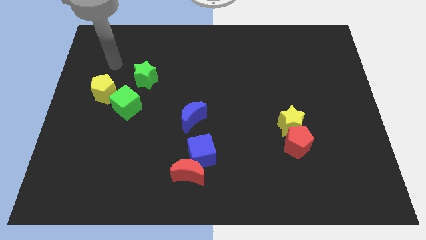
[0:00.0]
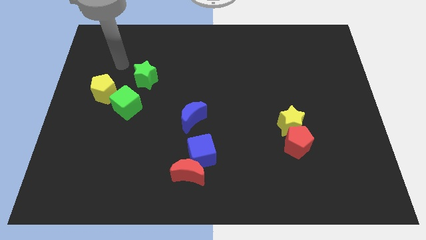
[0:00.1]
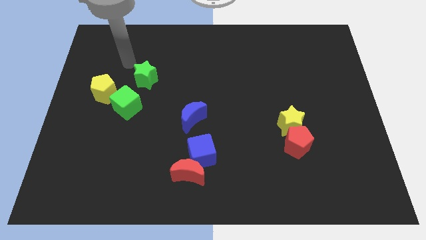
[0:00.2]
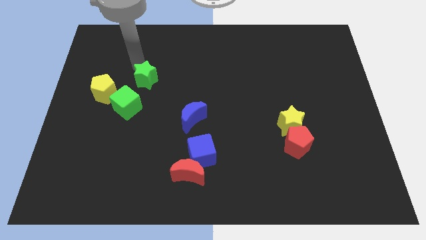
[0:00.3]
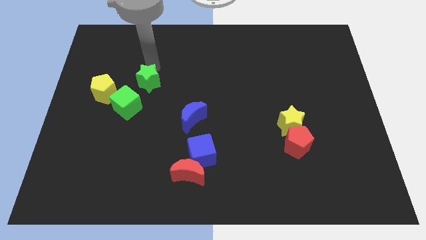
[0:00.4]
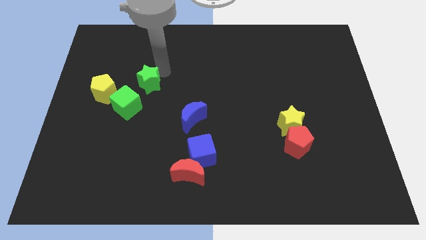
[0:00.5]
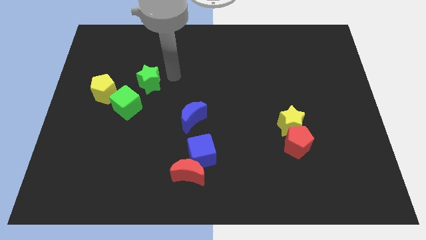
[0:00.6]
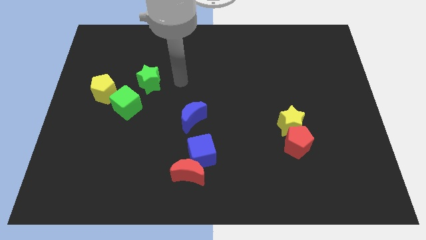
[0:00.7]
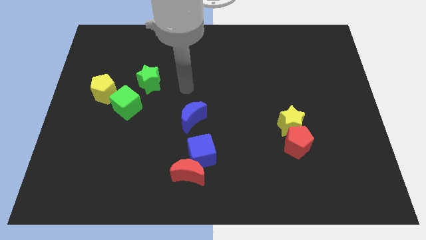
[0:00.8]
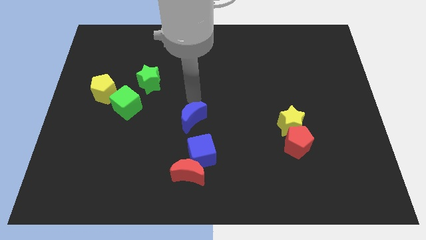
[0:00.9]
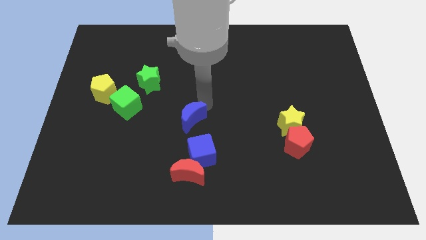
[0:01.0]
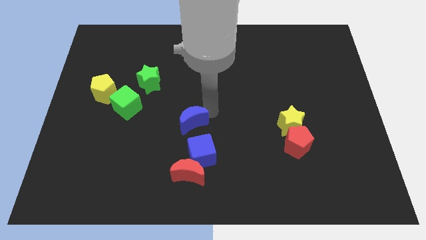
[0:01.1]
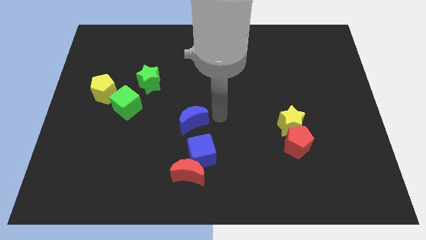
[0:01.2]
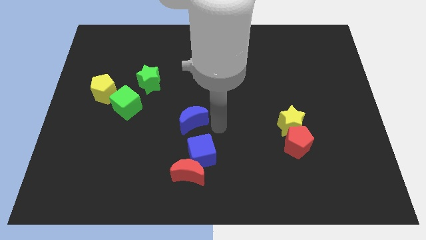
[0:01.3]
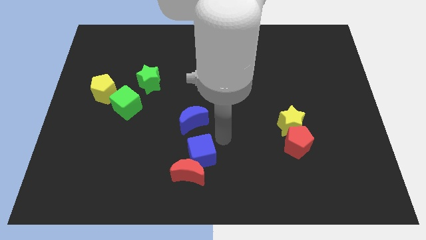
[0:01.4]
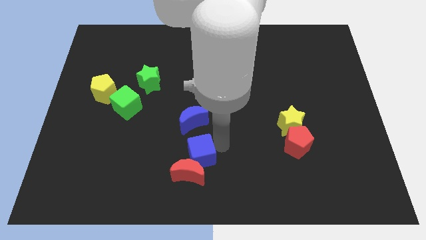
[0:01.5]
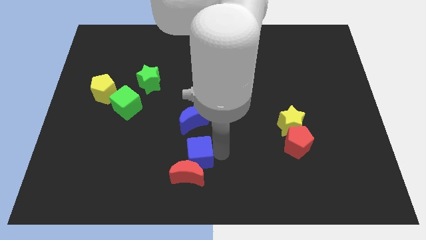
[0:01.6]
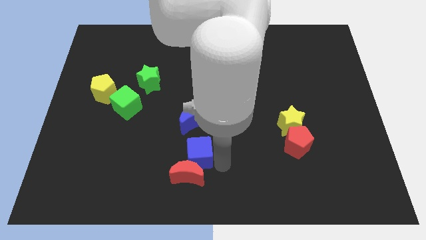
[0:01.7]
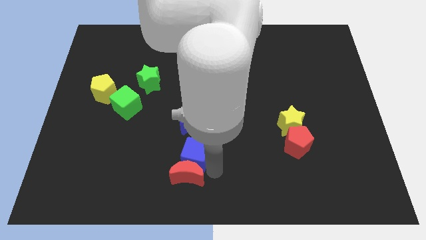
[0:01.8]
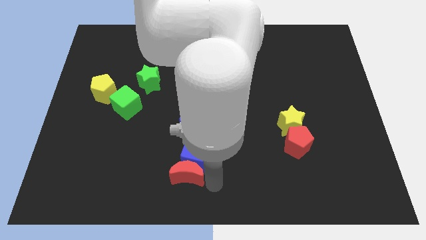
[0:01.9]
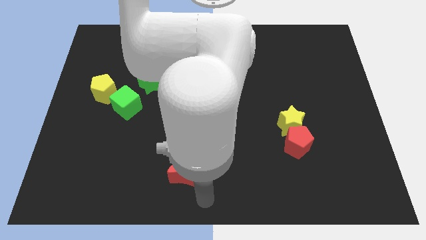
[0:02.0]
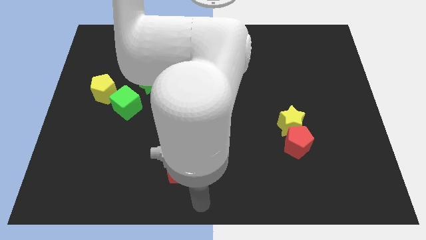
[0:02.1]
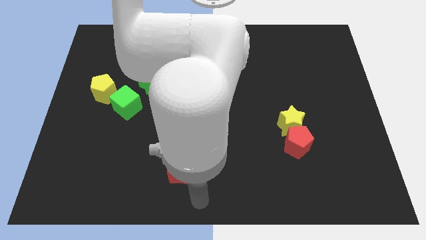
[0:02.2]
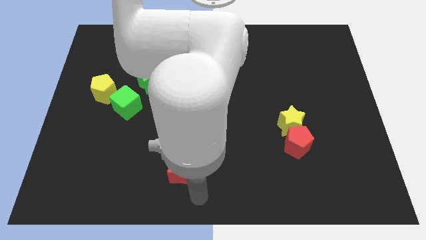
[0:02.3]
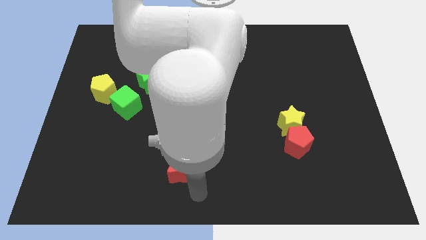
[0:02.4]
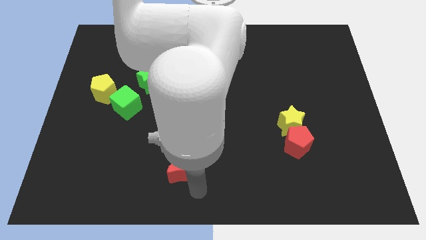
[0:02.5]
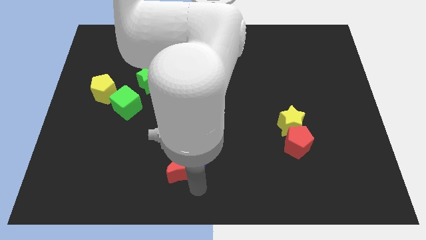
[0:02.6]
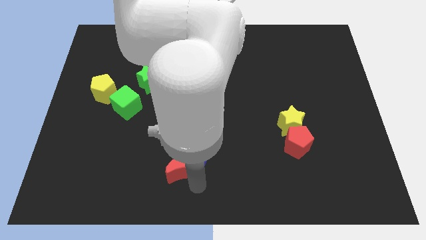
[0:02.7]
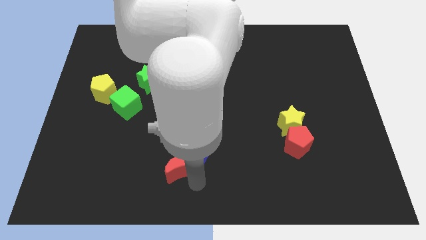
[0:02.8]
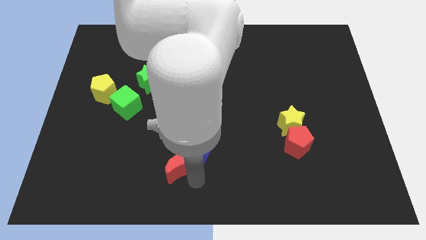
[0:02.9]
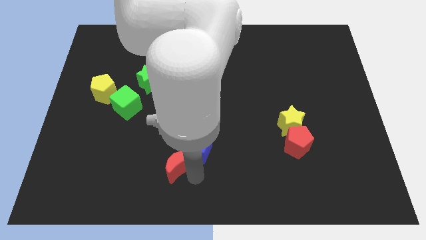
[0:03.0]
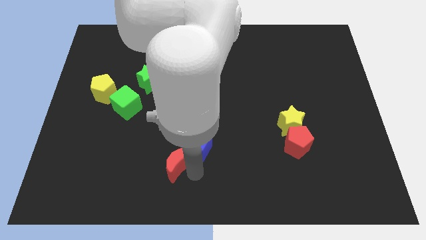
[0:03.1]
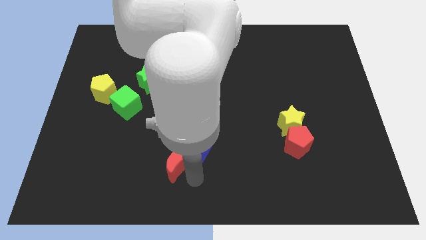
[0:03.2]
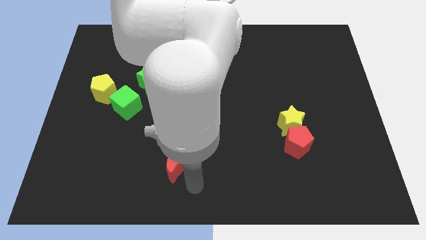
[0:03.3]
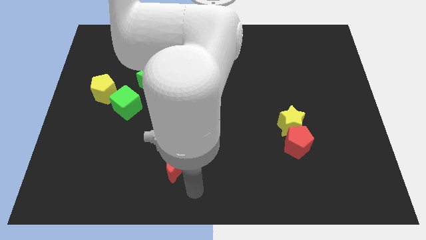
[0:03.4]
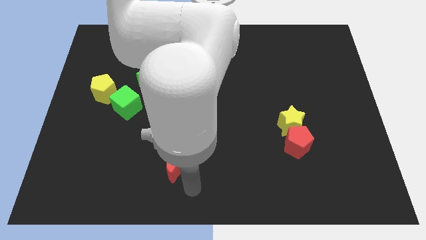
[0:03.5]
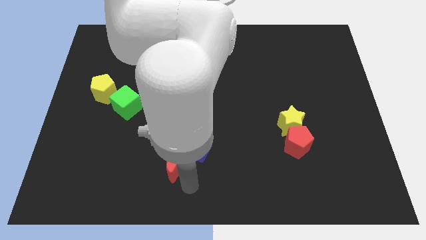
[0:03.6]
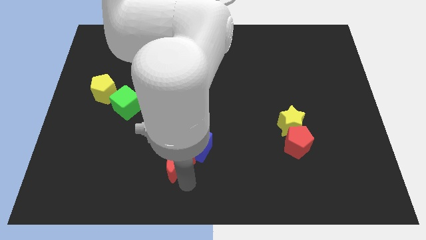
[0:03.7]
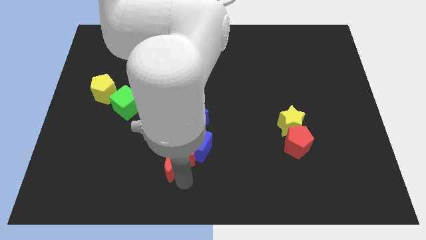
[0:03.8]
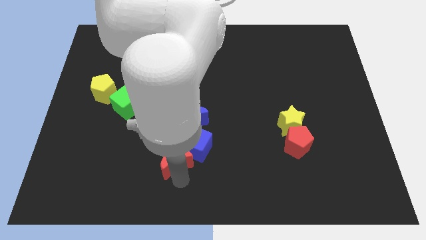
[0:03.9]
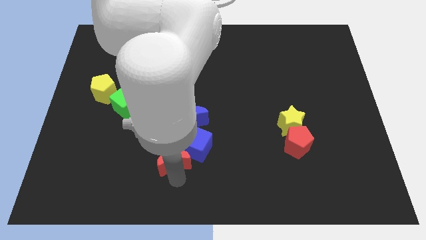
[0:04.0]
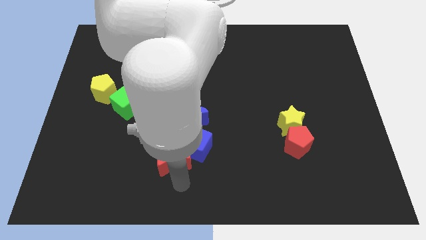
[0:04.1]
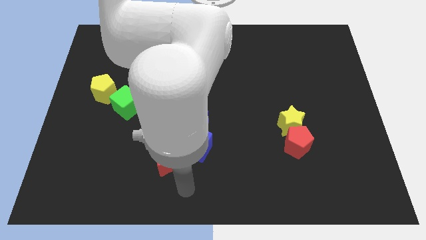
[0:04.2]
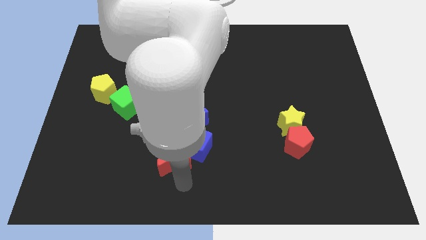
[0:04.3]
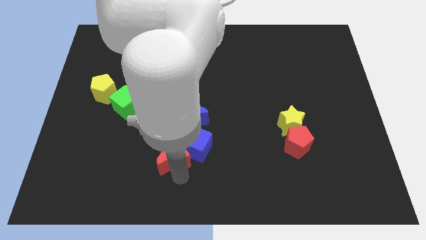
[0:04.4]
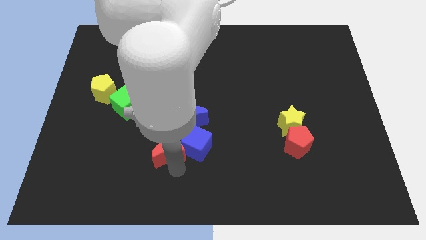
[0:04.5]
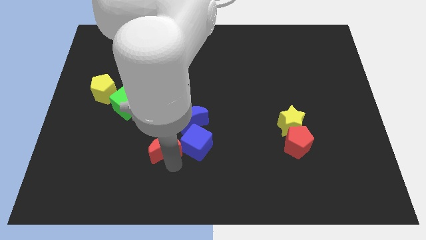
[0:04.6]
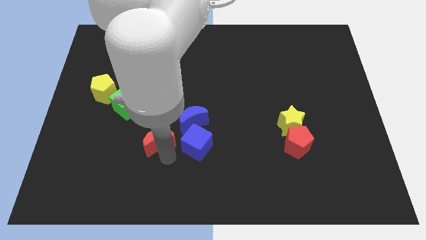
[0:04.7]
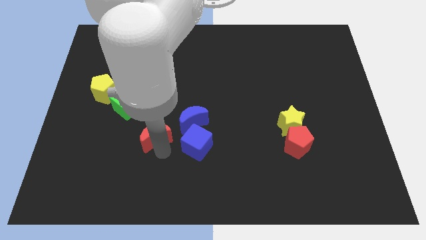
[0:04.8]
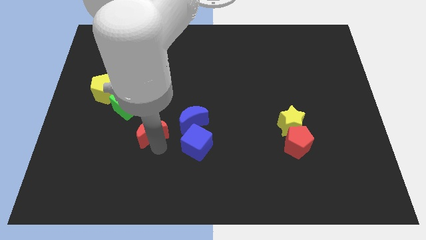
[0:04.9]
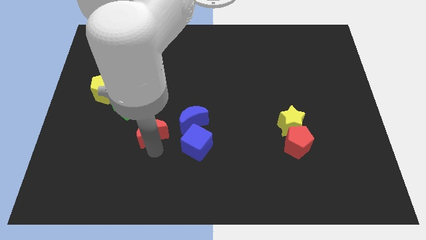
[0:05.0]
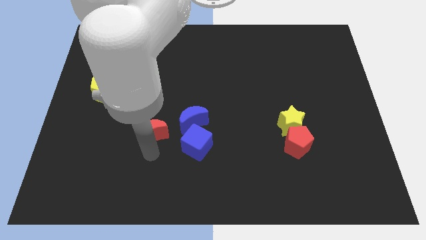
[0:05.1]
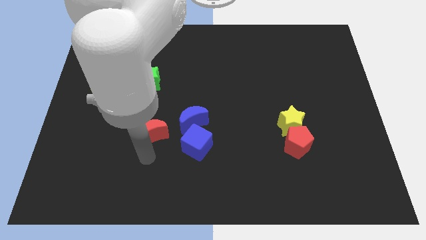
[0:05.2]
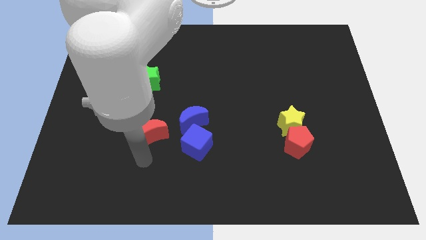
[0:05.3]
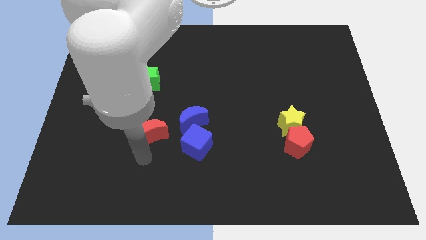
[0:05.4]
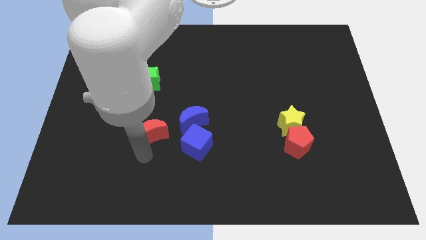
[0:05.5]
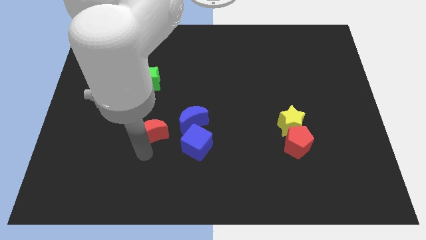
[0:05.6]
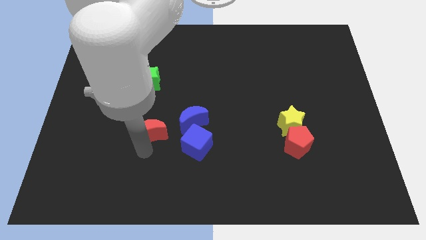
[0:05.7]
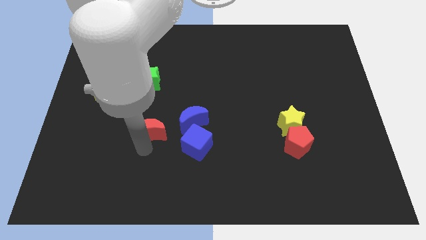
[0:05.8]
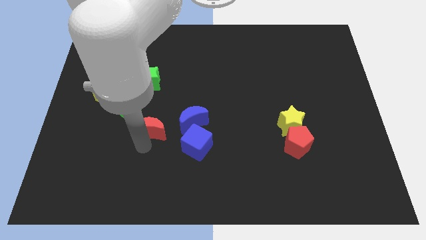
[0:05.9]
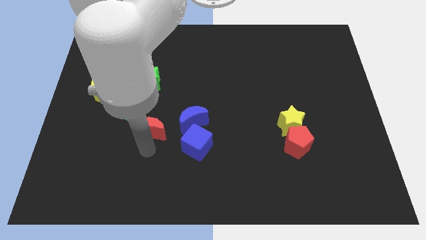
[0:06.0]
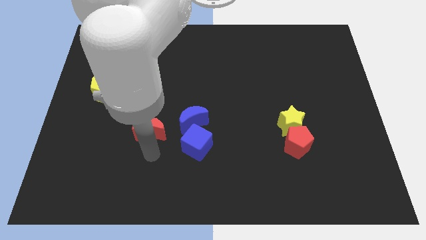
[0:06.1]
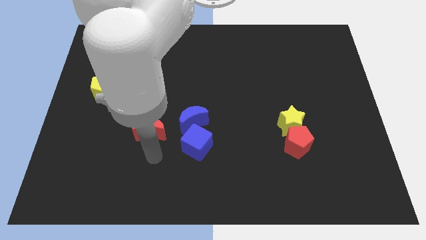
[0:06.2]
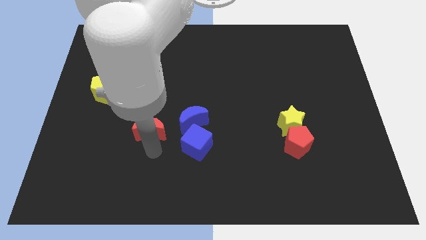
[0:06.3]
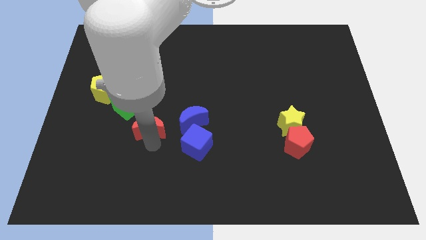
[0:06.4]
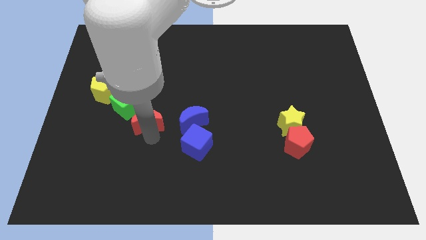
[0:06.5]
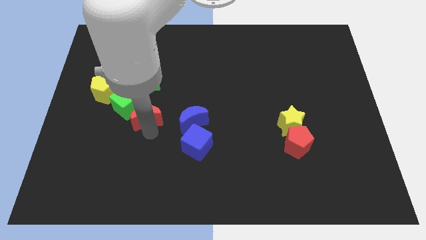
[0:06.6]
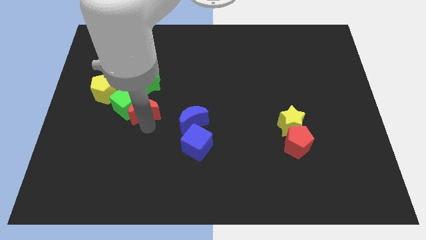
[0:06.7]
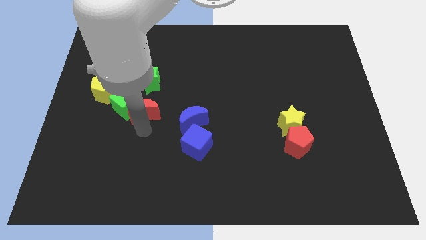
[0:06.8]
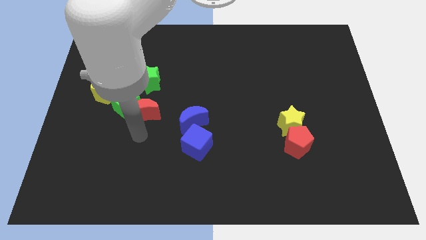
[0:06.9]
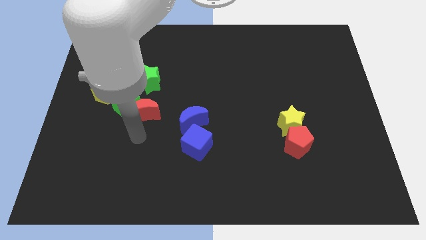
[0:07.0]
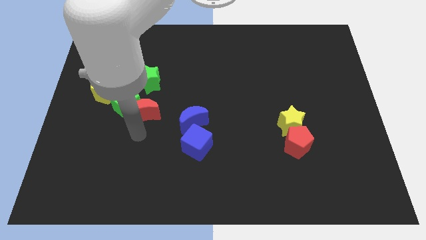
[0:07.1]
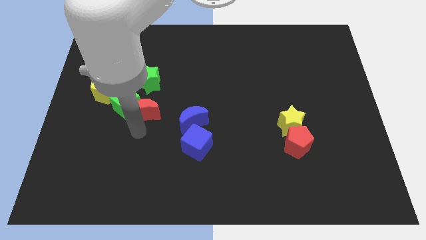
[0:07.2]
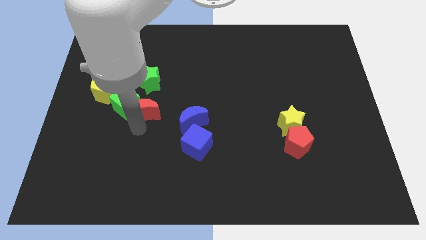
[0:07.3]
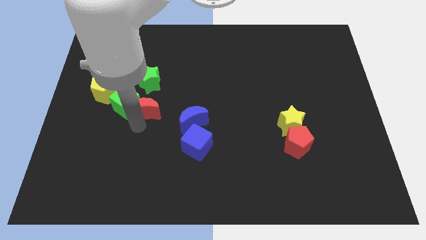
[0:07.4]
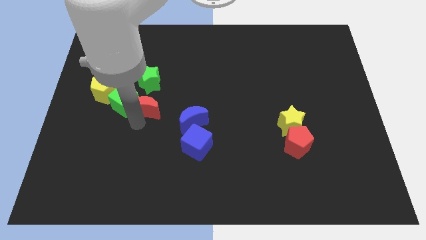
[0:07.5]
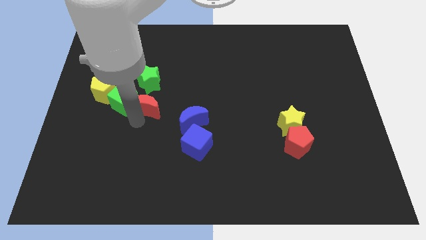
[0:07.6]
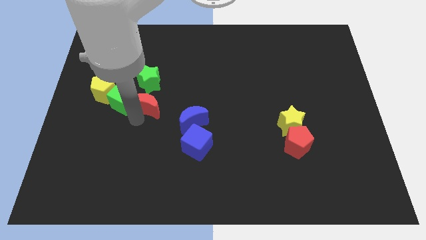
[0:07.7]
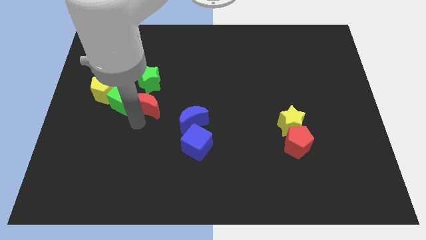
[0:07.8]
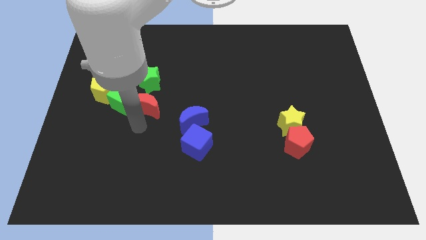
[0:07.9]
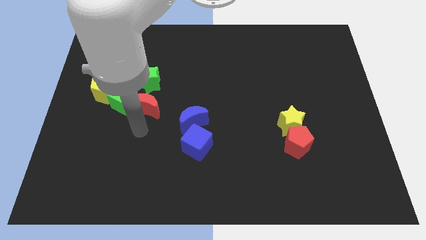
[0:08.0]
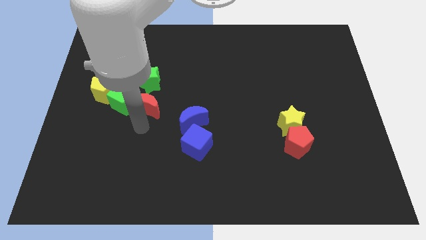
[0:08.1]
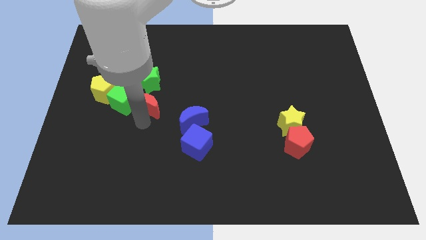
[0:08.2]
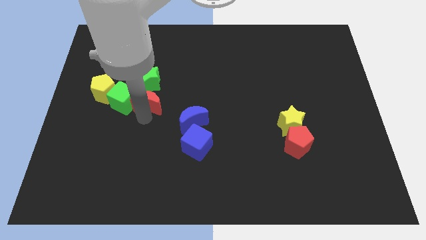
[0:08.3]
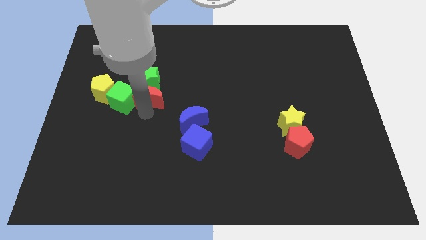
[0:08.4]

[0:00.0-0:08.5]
push the red moon to the green star
